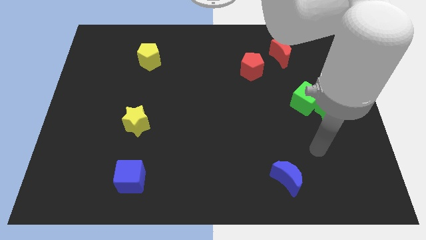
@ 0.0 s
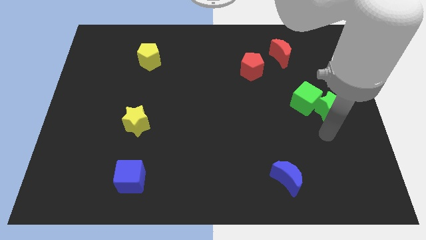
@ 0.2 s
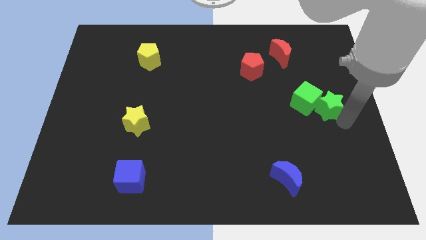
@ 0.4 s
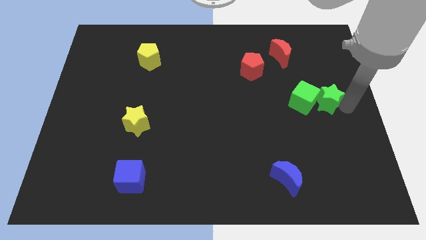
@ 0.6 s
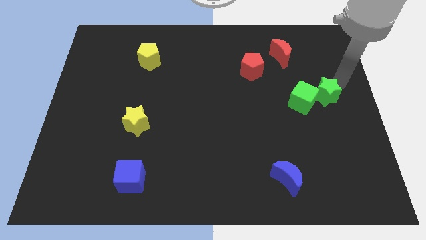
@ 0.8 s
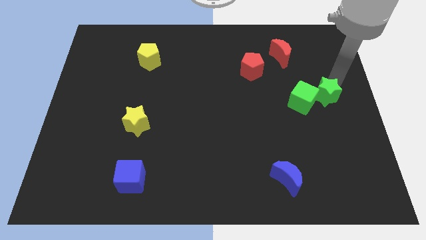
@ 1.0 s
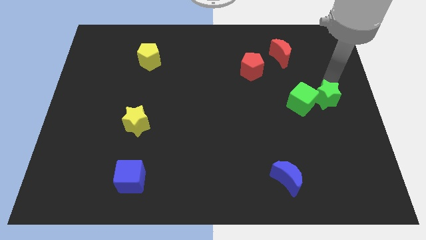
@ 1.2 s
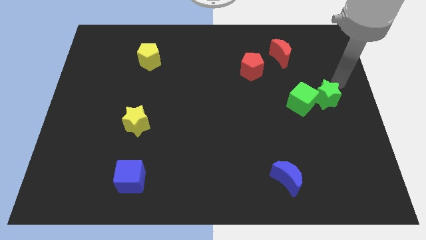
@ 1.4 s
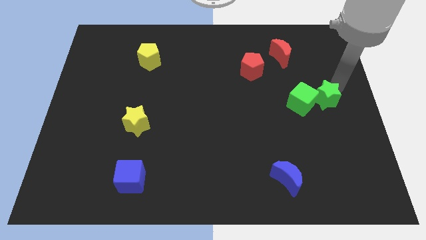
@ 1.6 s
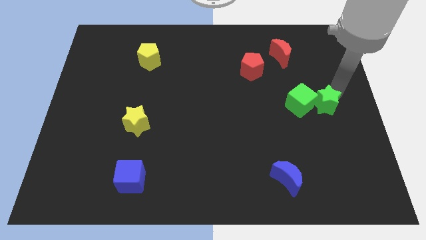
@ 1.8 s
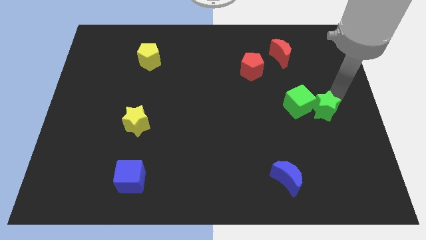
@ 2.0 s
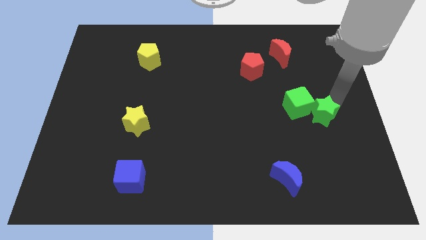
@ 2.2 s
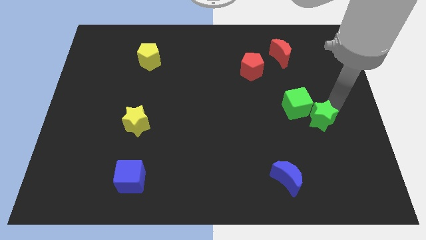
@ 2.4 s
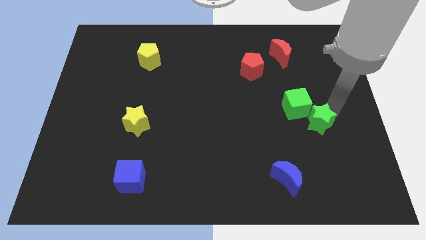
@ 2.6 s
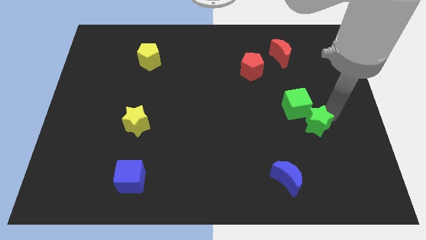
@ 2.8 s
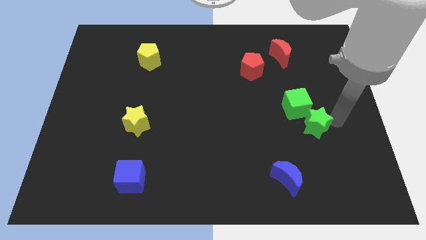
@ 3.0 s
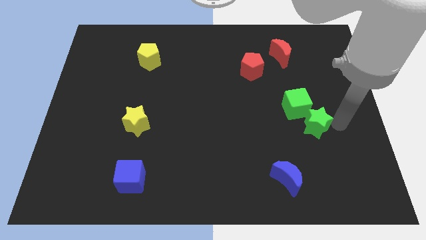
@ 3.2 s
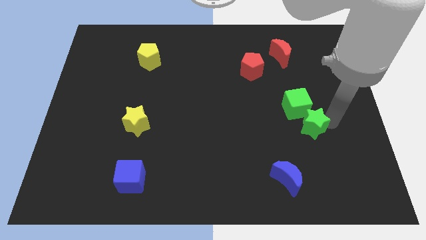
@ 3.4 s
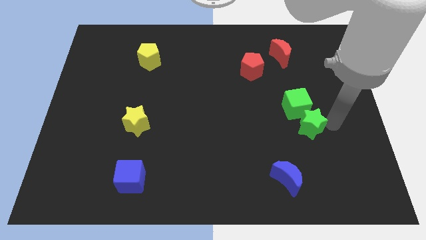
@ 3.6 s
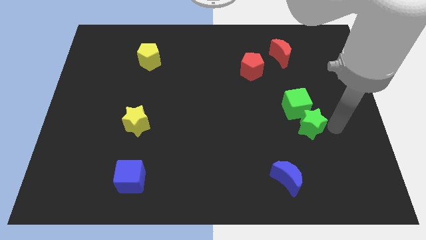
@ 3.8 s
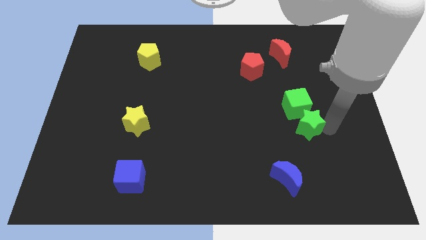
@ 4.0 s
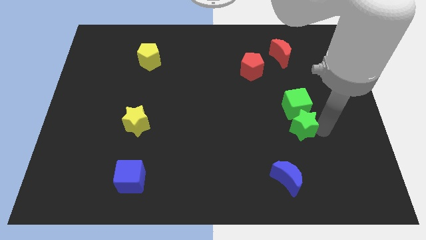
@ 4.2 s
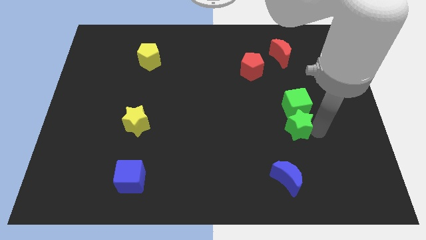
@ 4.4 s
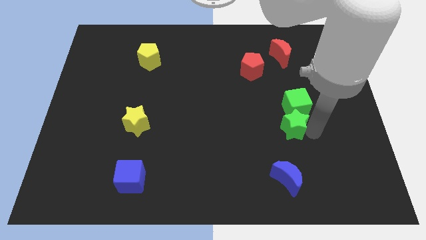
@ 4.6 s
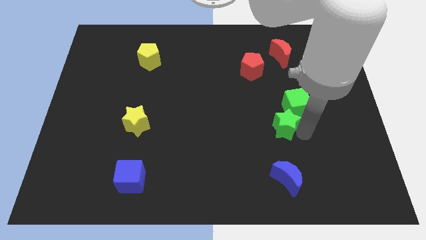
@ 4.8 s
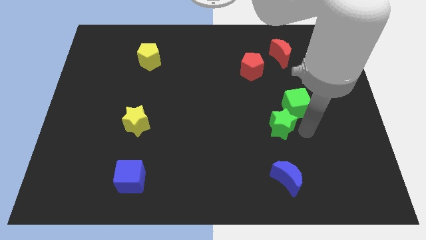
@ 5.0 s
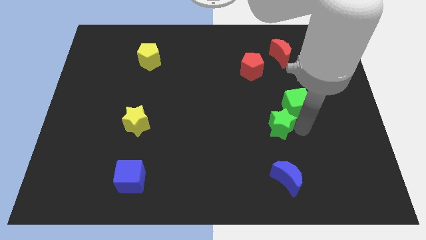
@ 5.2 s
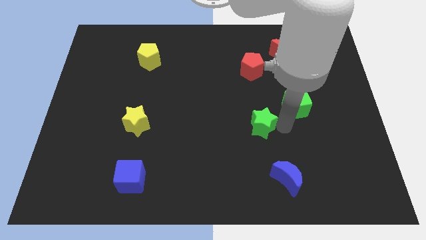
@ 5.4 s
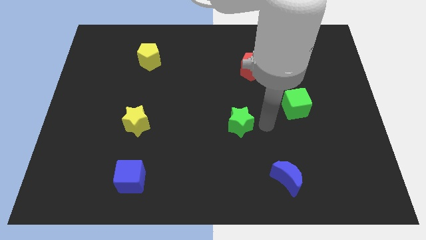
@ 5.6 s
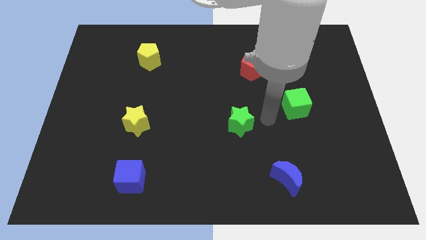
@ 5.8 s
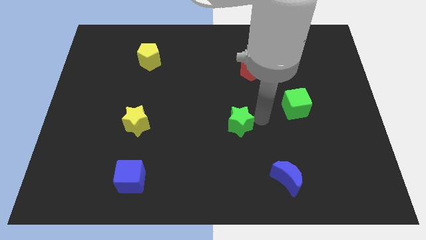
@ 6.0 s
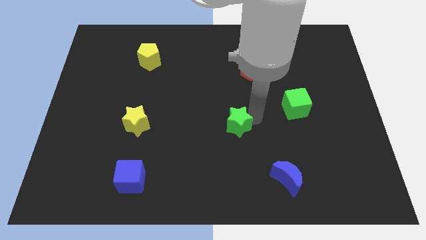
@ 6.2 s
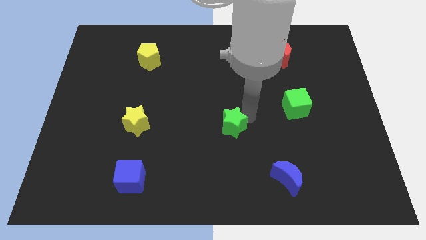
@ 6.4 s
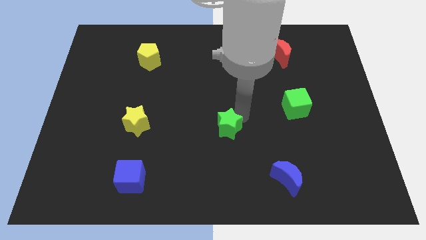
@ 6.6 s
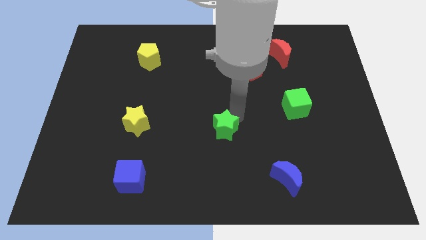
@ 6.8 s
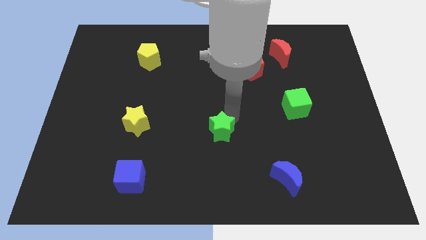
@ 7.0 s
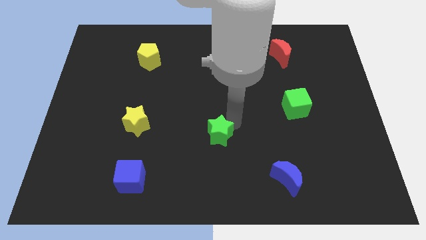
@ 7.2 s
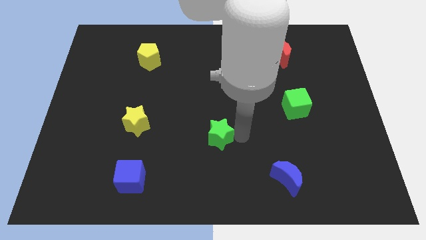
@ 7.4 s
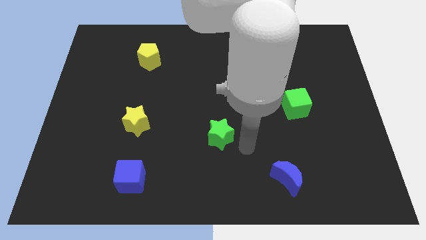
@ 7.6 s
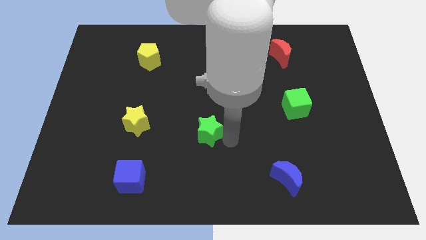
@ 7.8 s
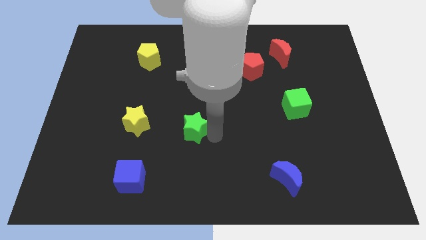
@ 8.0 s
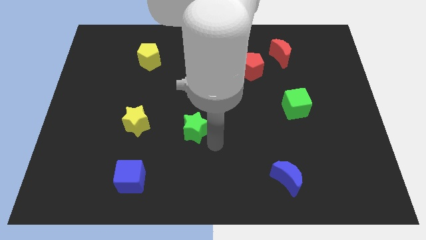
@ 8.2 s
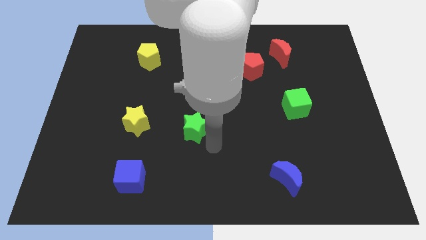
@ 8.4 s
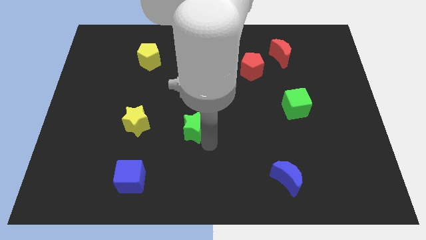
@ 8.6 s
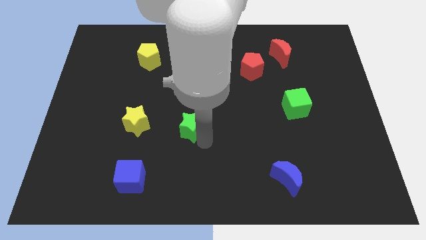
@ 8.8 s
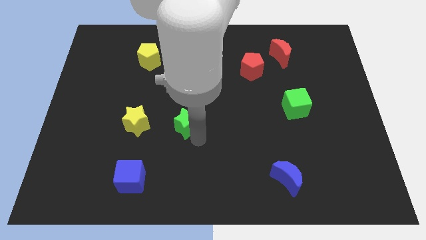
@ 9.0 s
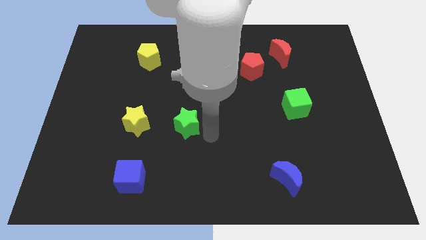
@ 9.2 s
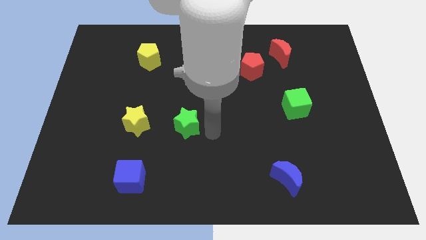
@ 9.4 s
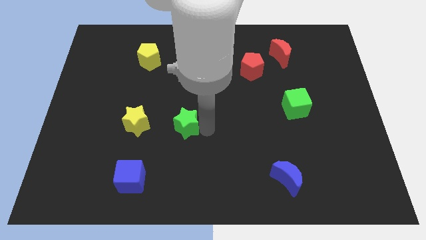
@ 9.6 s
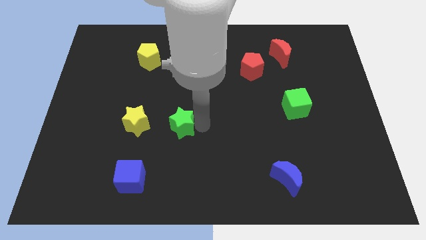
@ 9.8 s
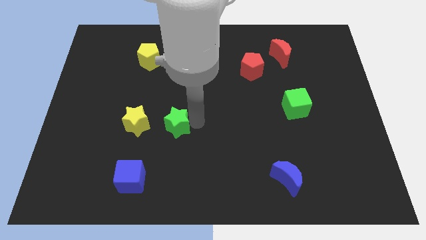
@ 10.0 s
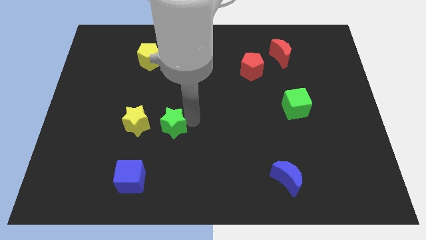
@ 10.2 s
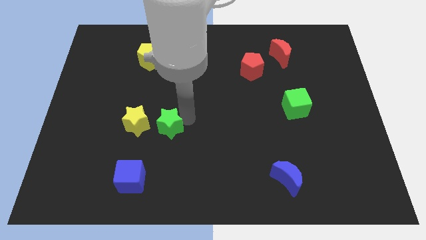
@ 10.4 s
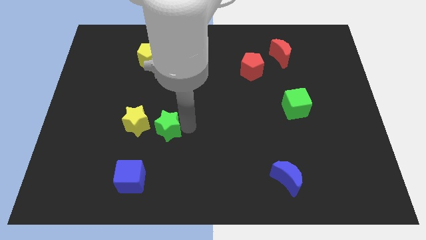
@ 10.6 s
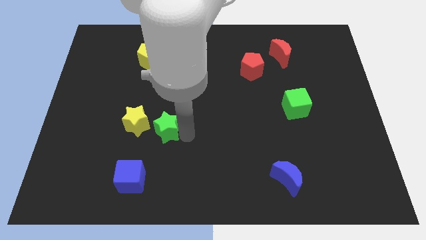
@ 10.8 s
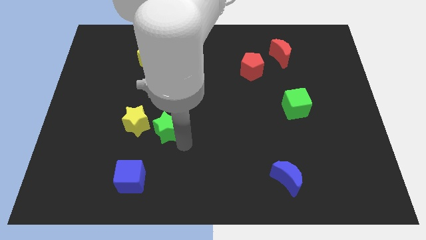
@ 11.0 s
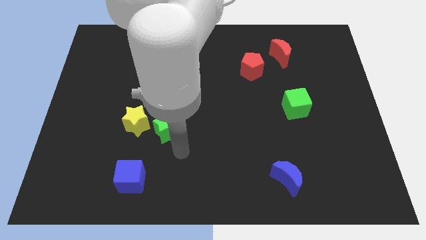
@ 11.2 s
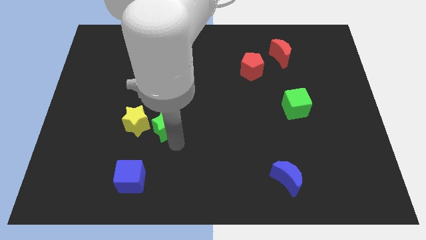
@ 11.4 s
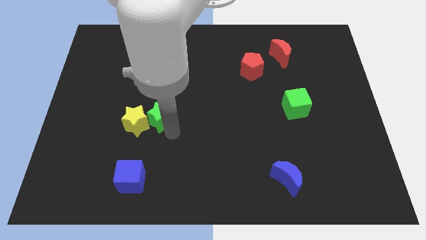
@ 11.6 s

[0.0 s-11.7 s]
move the green star next to the yellow star

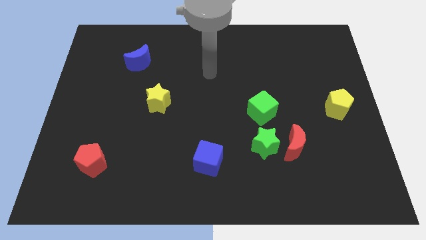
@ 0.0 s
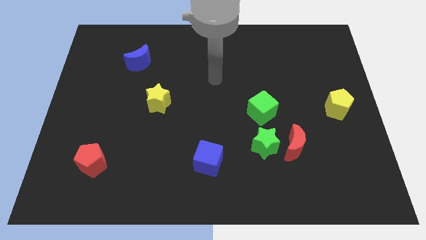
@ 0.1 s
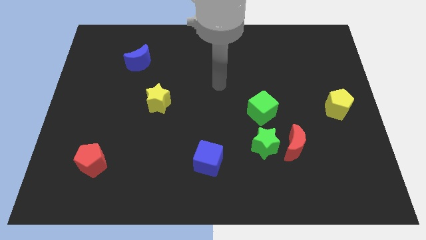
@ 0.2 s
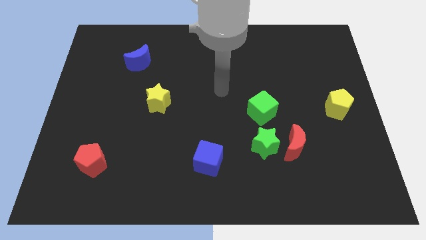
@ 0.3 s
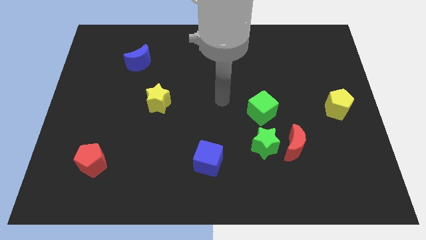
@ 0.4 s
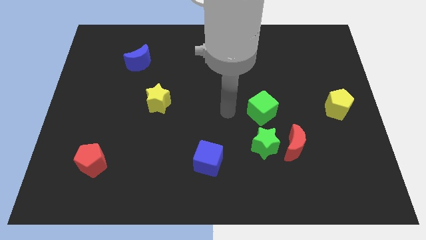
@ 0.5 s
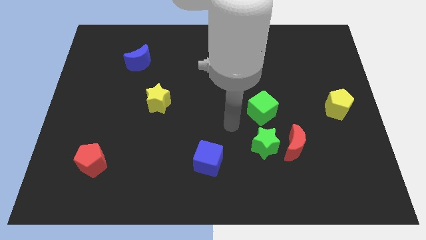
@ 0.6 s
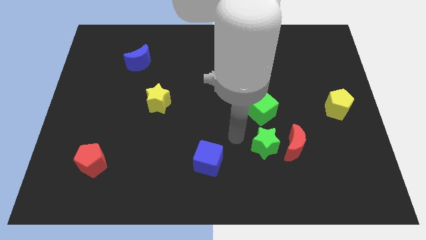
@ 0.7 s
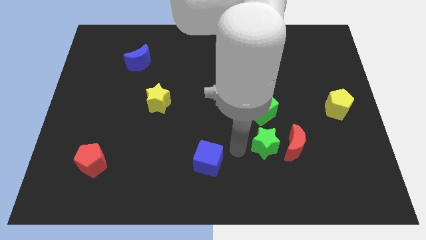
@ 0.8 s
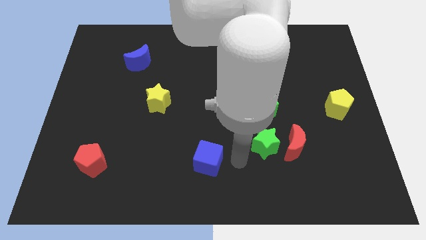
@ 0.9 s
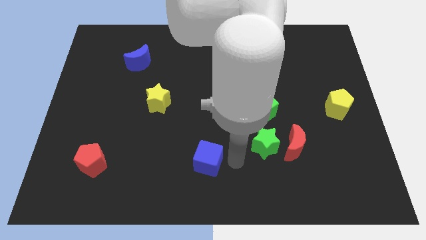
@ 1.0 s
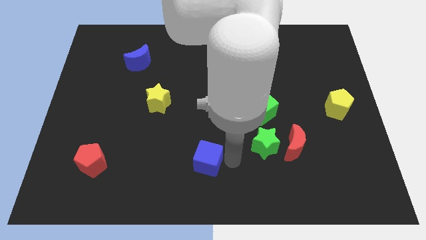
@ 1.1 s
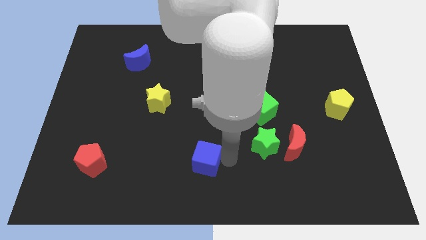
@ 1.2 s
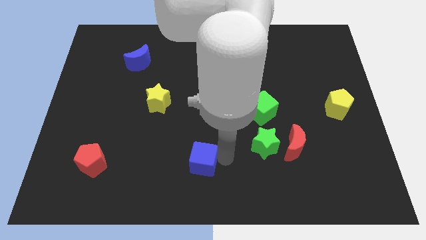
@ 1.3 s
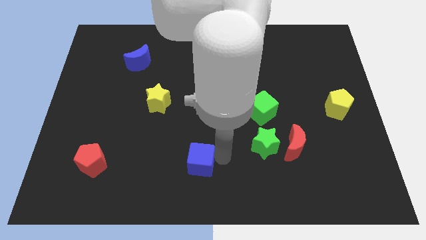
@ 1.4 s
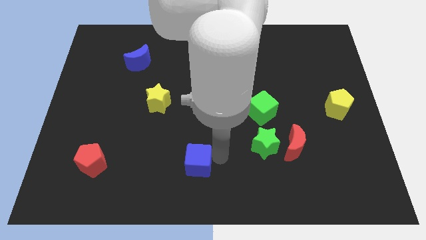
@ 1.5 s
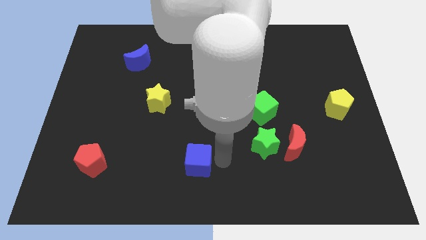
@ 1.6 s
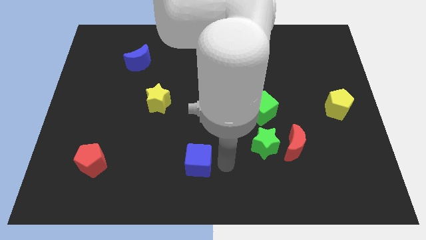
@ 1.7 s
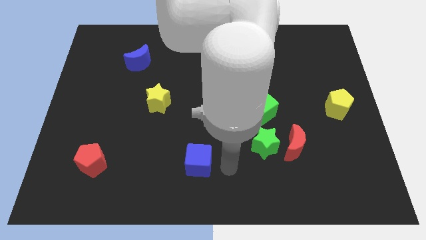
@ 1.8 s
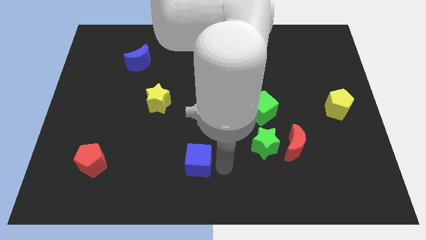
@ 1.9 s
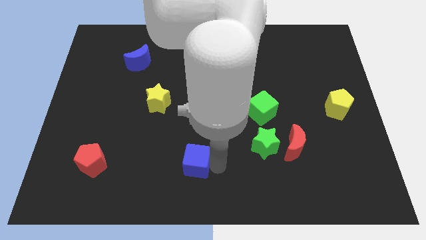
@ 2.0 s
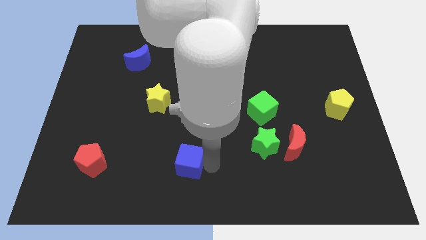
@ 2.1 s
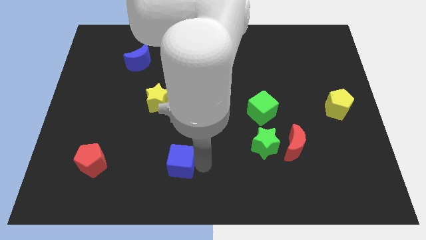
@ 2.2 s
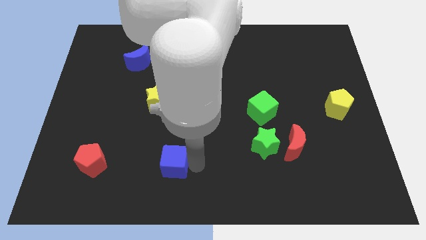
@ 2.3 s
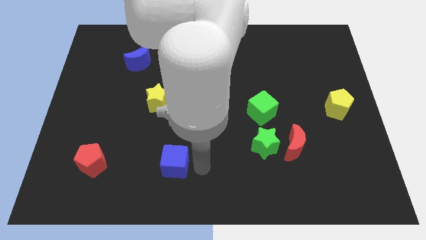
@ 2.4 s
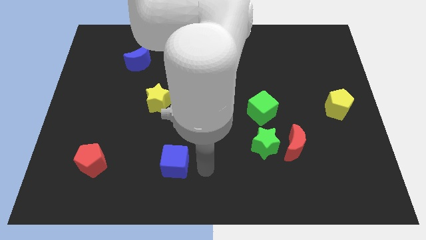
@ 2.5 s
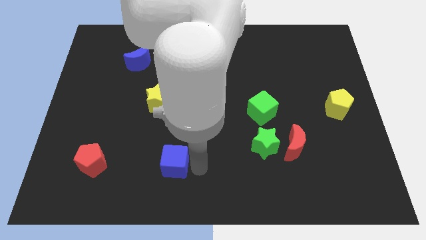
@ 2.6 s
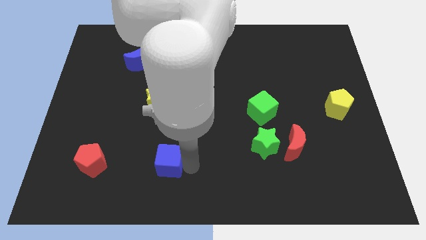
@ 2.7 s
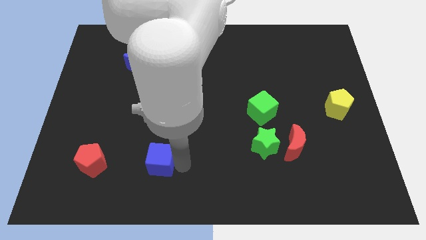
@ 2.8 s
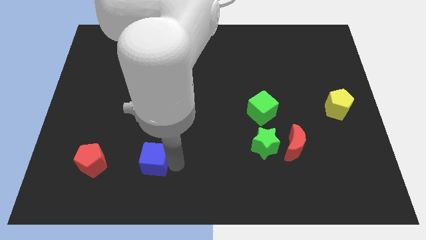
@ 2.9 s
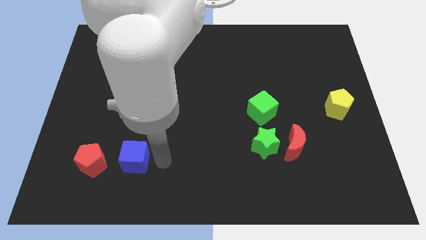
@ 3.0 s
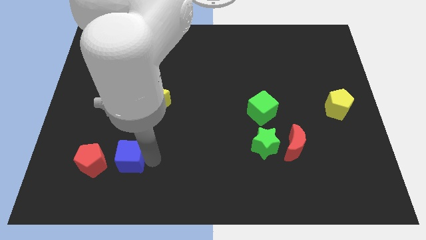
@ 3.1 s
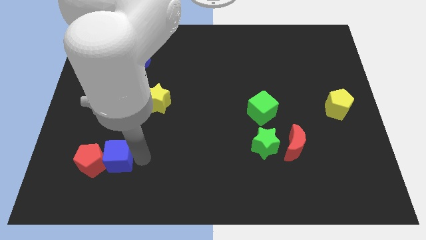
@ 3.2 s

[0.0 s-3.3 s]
slide the blue cube towards the red pentagon
